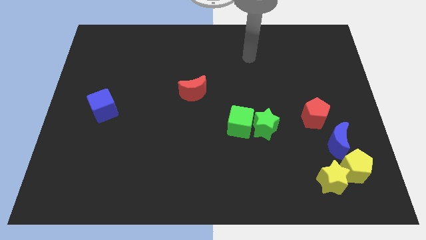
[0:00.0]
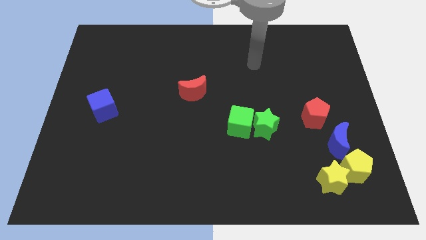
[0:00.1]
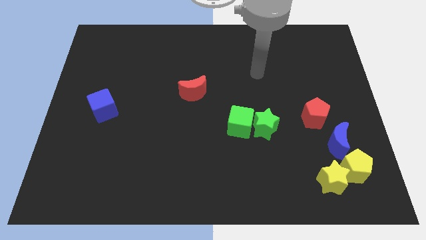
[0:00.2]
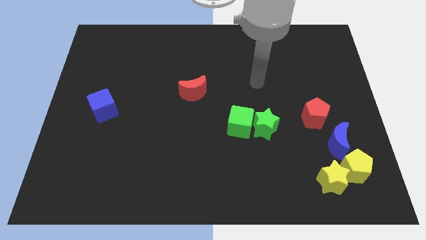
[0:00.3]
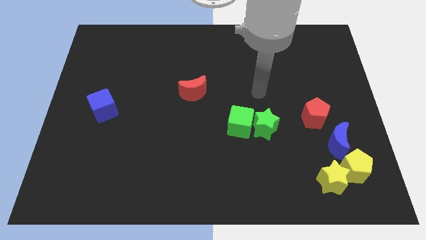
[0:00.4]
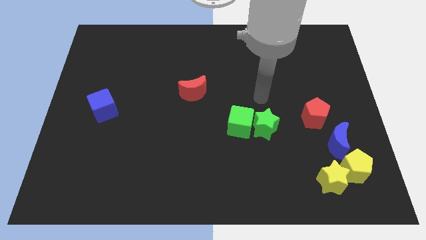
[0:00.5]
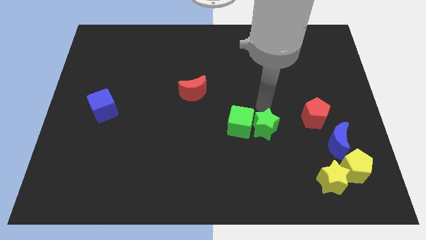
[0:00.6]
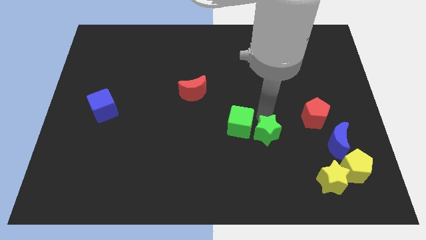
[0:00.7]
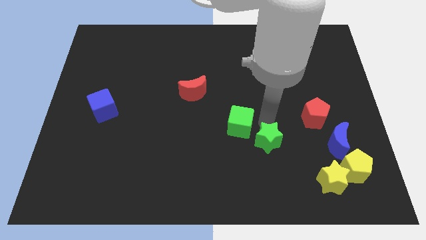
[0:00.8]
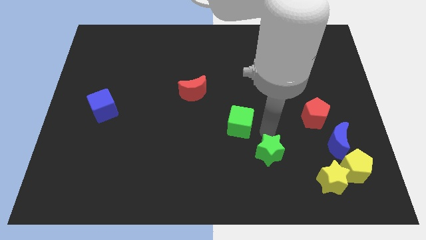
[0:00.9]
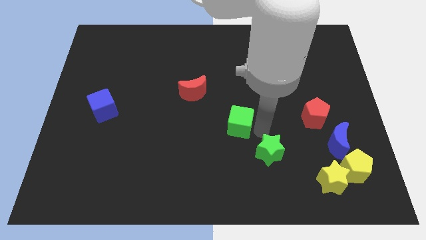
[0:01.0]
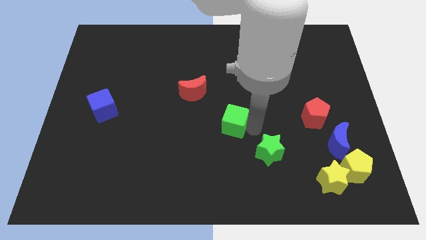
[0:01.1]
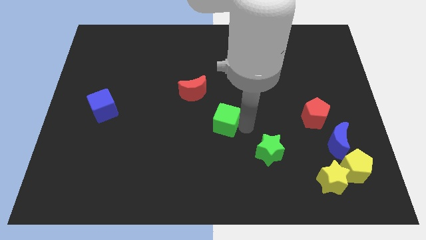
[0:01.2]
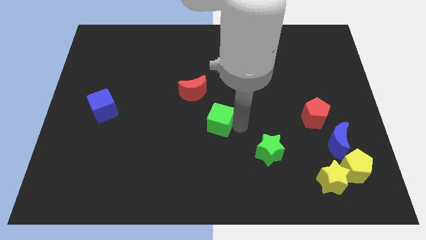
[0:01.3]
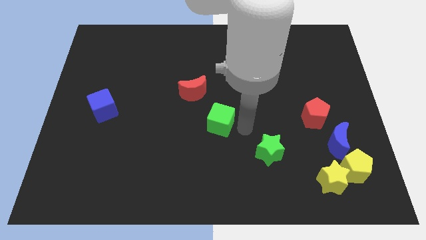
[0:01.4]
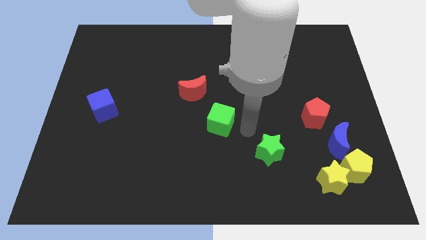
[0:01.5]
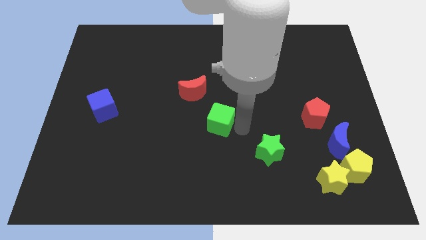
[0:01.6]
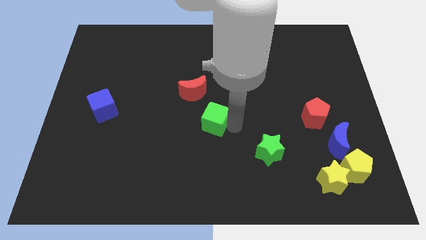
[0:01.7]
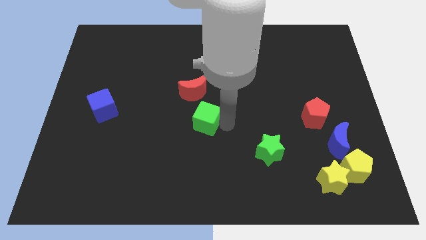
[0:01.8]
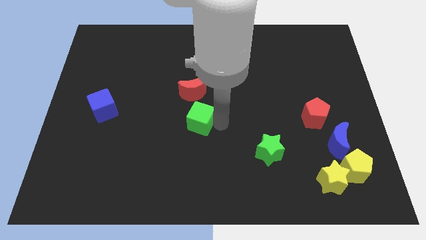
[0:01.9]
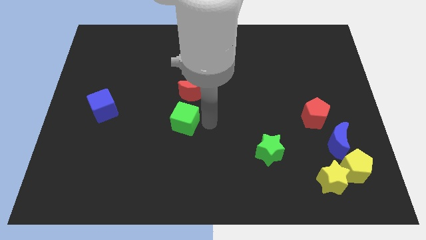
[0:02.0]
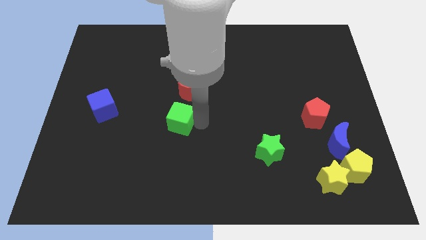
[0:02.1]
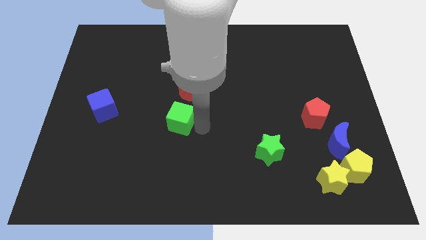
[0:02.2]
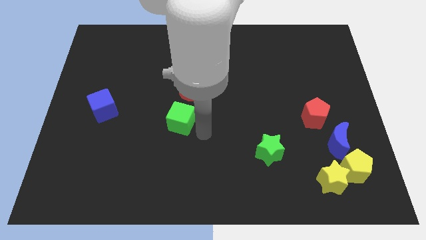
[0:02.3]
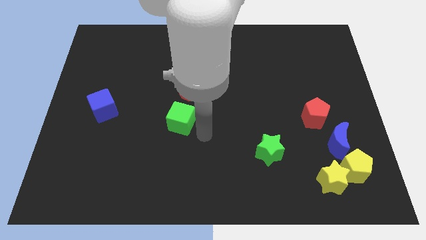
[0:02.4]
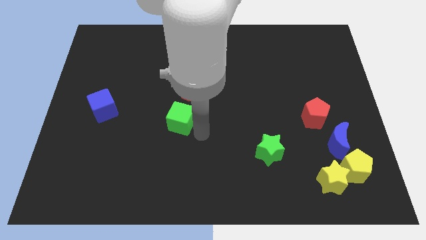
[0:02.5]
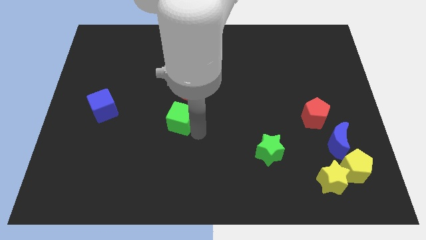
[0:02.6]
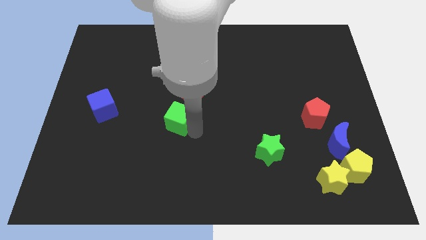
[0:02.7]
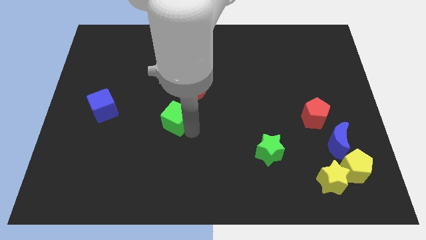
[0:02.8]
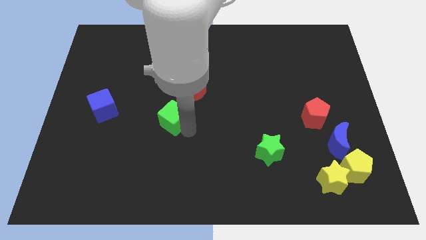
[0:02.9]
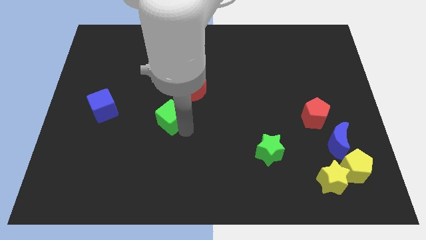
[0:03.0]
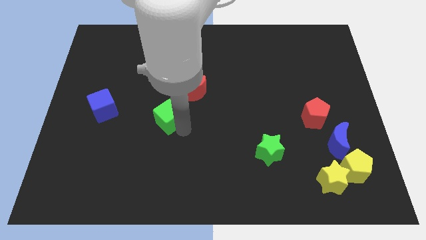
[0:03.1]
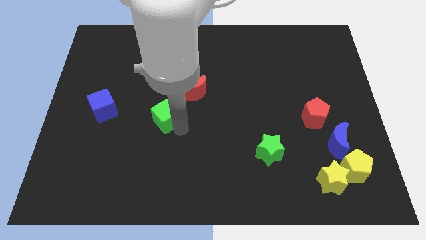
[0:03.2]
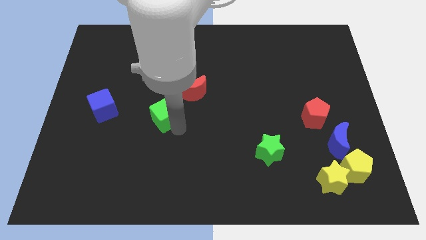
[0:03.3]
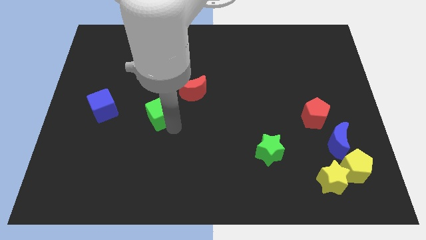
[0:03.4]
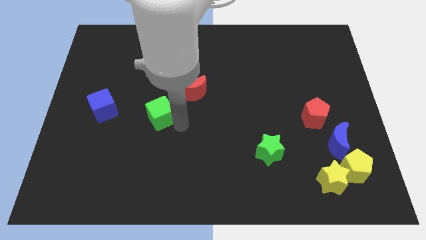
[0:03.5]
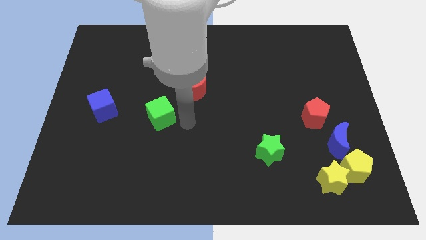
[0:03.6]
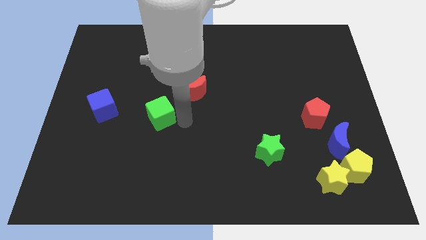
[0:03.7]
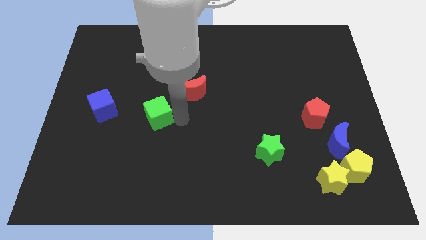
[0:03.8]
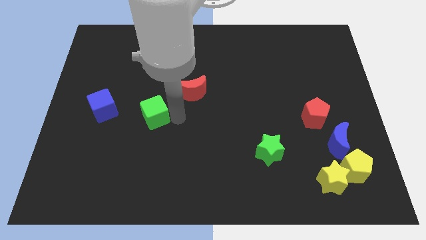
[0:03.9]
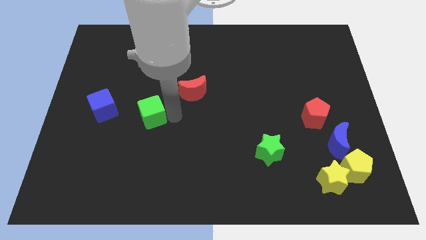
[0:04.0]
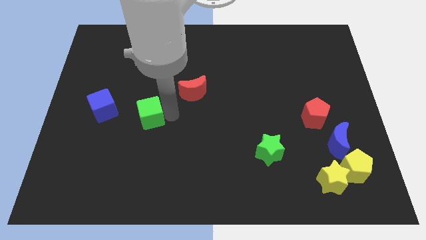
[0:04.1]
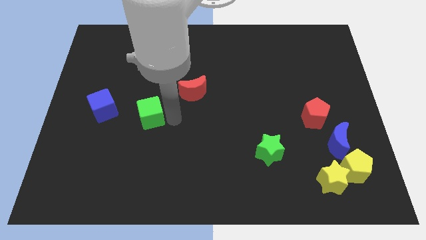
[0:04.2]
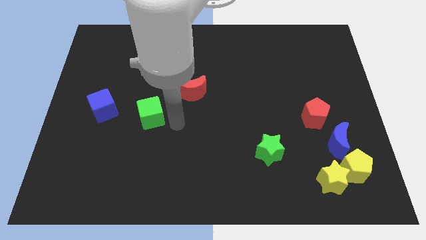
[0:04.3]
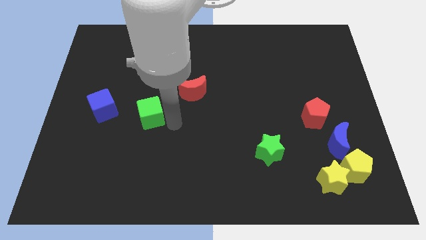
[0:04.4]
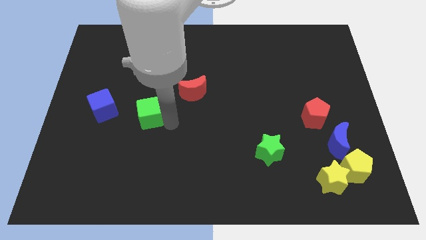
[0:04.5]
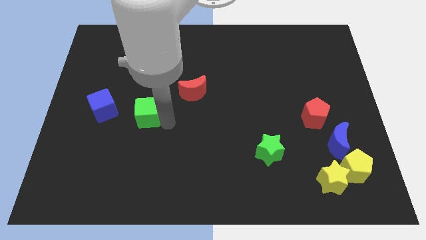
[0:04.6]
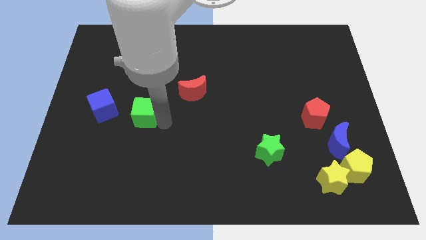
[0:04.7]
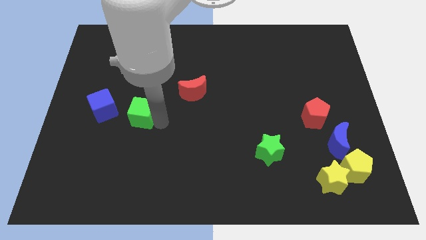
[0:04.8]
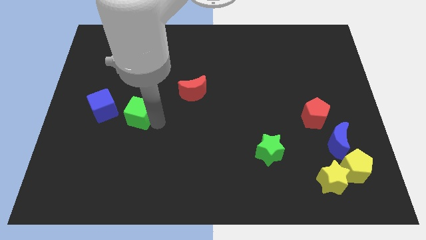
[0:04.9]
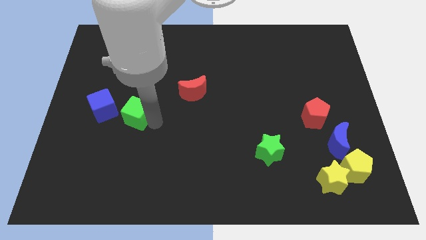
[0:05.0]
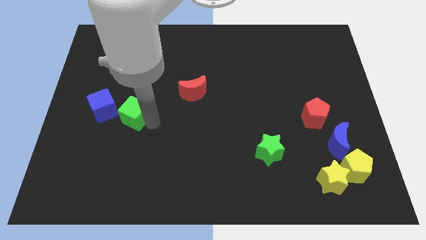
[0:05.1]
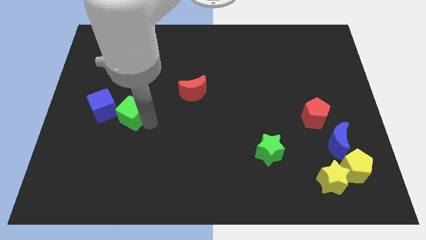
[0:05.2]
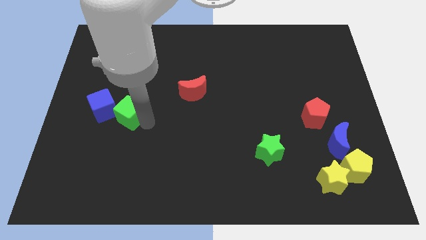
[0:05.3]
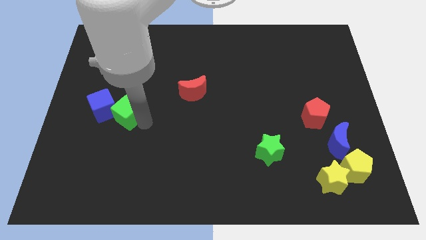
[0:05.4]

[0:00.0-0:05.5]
slide the green cube close to the blue cube

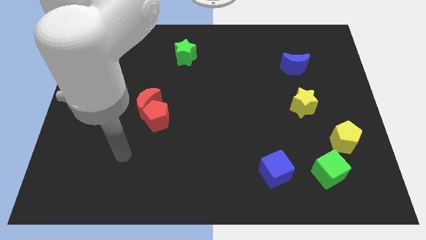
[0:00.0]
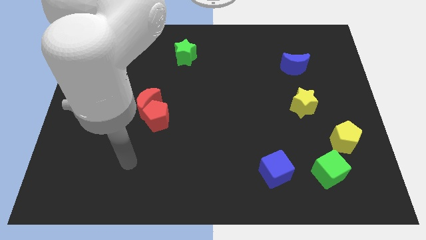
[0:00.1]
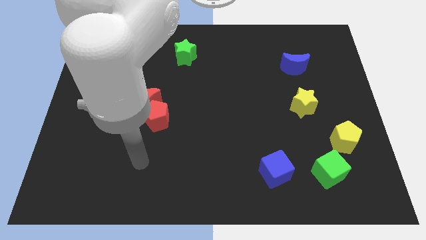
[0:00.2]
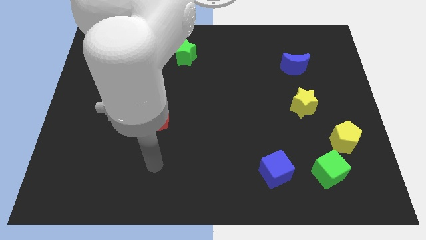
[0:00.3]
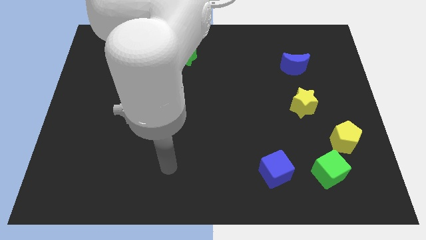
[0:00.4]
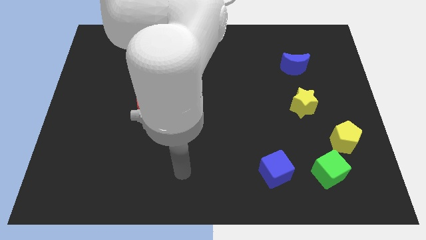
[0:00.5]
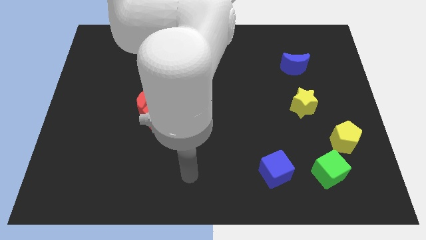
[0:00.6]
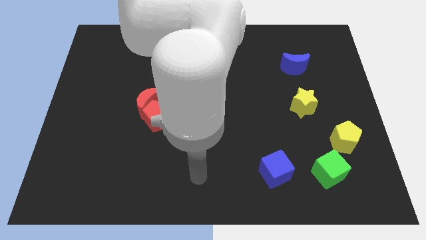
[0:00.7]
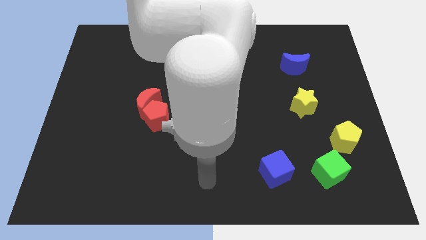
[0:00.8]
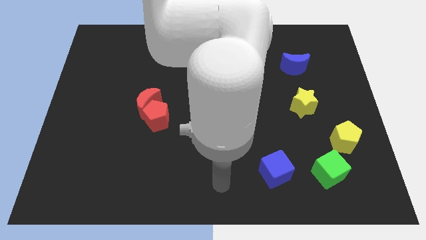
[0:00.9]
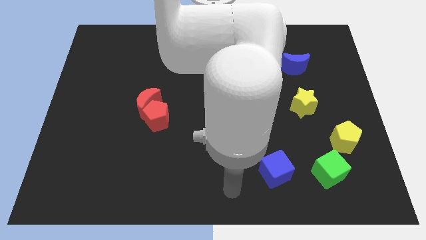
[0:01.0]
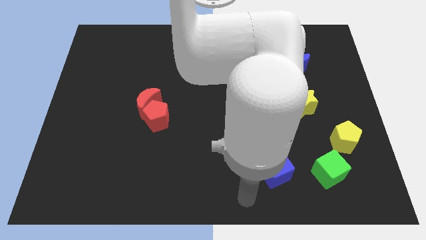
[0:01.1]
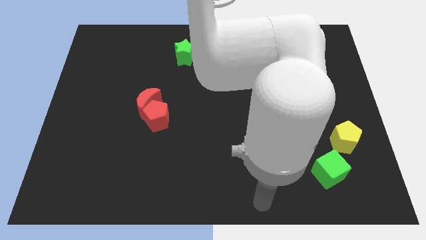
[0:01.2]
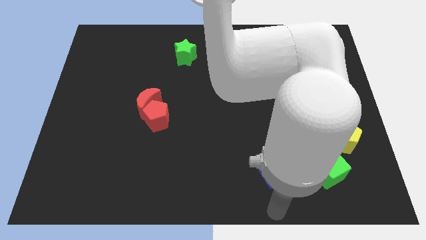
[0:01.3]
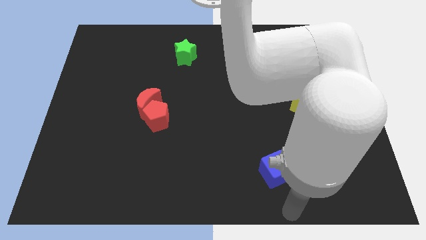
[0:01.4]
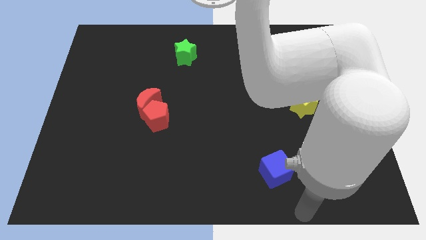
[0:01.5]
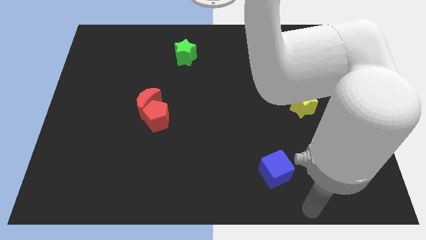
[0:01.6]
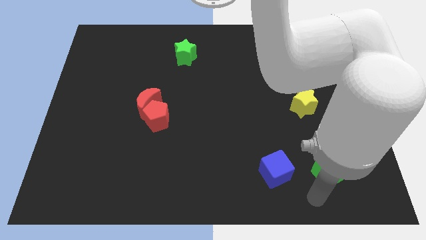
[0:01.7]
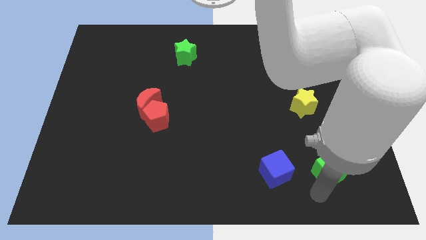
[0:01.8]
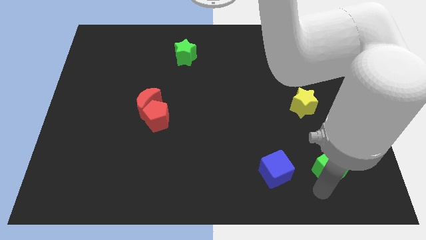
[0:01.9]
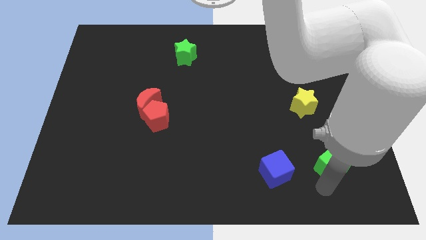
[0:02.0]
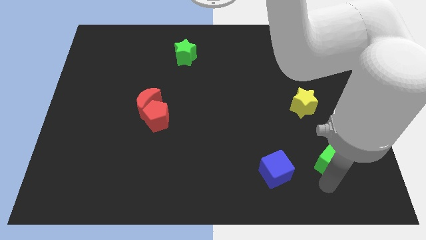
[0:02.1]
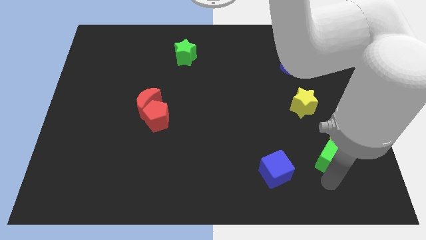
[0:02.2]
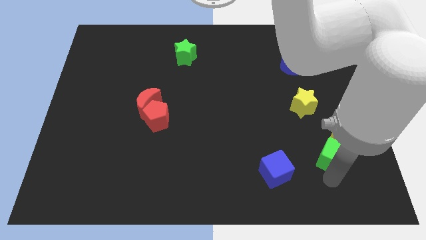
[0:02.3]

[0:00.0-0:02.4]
put the green cube to the yellow pentagon
